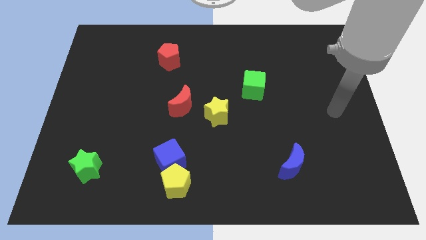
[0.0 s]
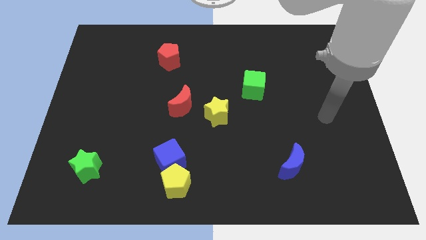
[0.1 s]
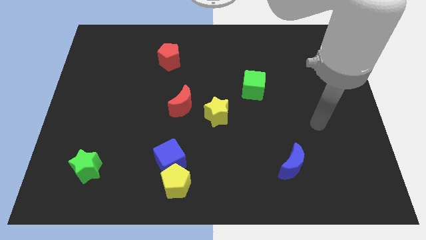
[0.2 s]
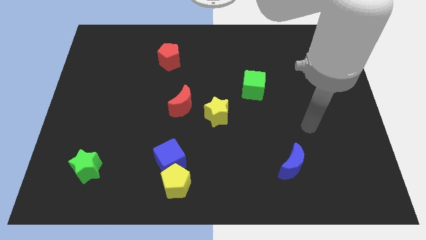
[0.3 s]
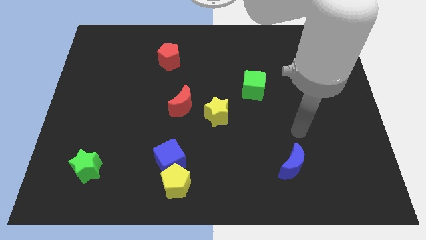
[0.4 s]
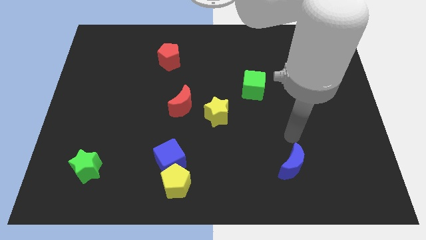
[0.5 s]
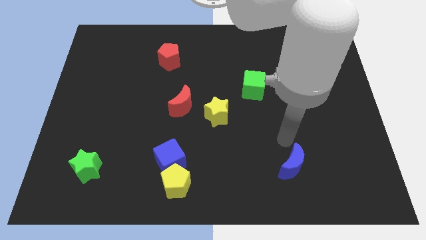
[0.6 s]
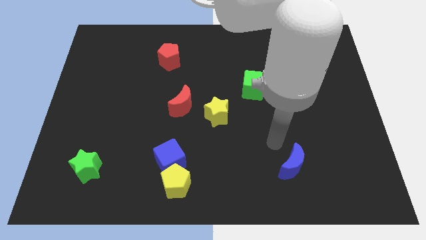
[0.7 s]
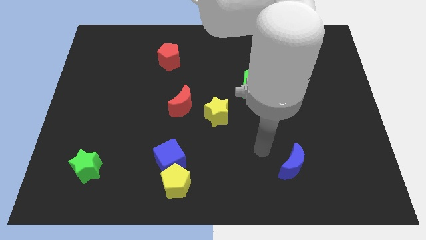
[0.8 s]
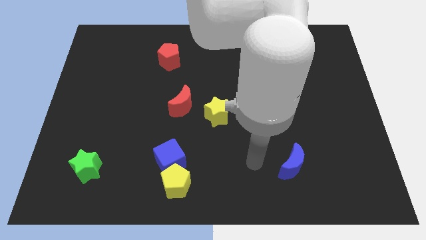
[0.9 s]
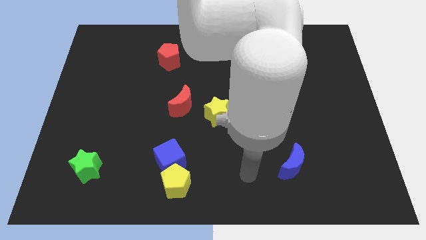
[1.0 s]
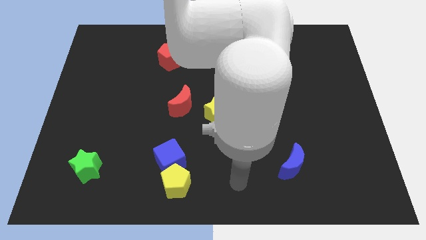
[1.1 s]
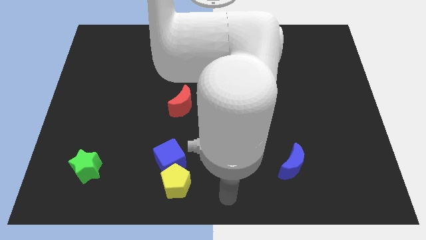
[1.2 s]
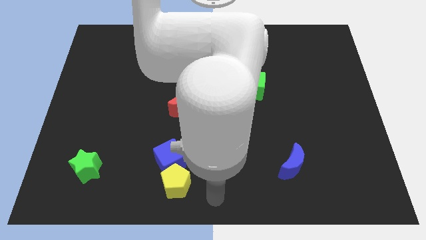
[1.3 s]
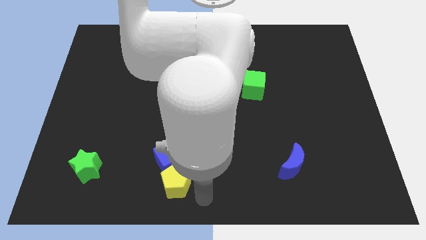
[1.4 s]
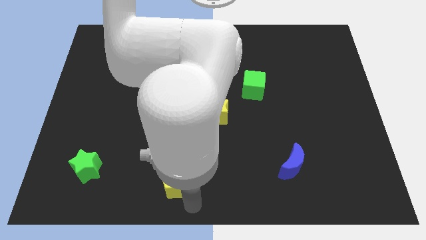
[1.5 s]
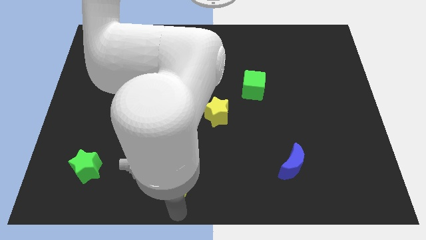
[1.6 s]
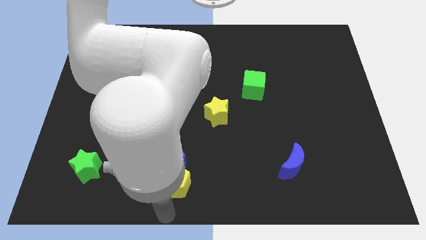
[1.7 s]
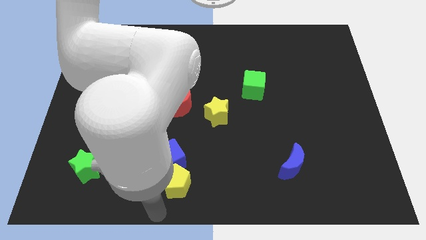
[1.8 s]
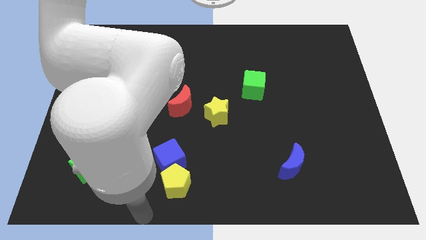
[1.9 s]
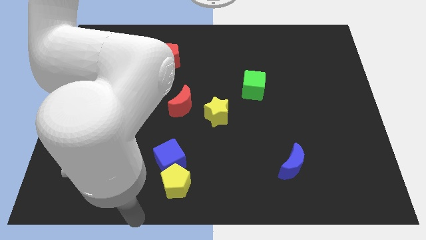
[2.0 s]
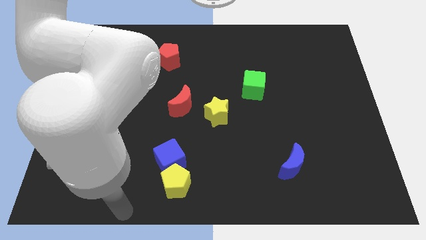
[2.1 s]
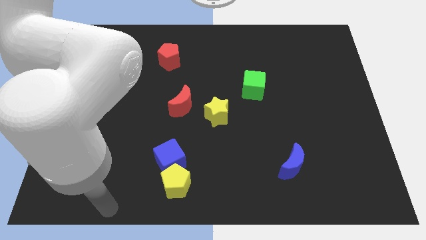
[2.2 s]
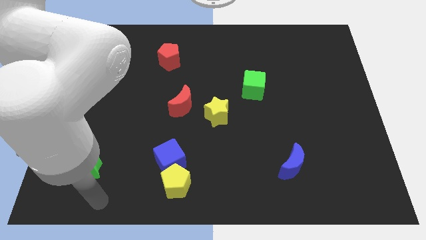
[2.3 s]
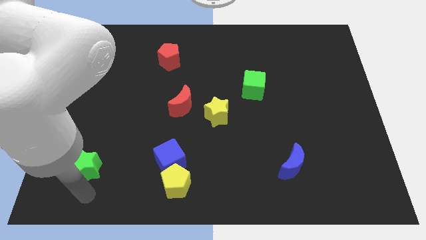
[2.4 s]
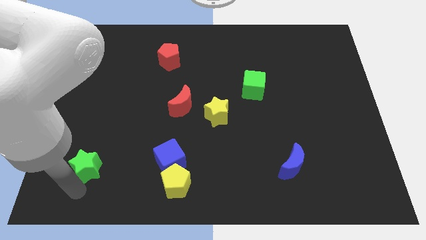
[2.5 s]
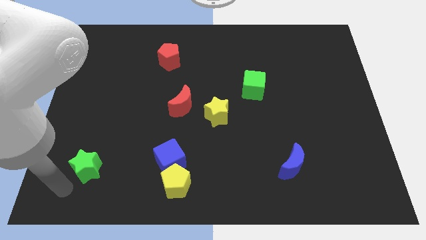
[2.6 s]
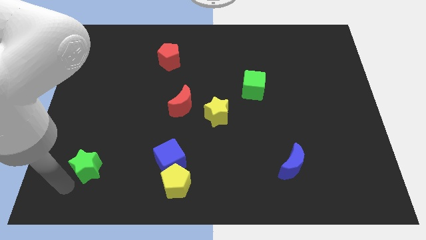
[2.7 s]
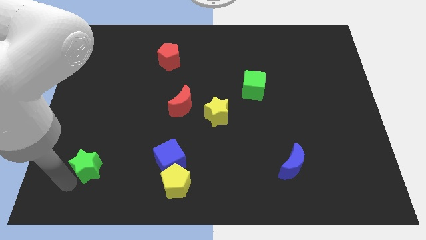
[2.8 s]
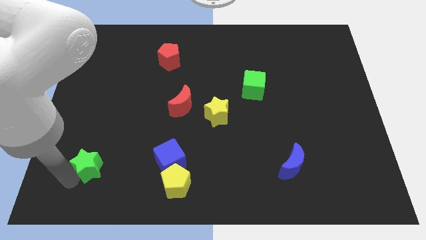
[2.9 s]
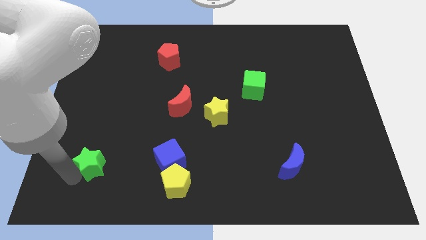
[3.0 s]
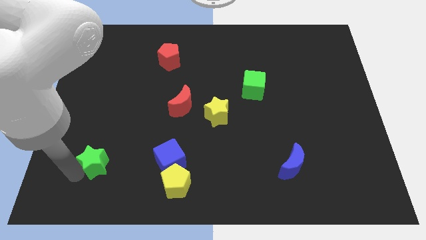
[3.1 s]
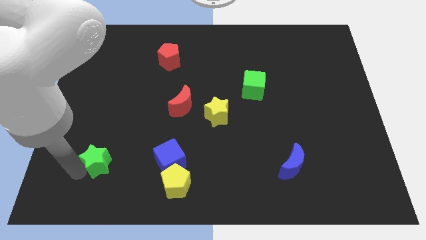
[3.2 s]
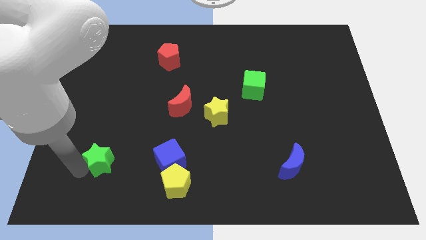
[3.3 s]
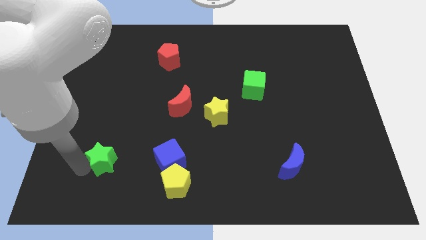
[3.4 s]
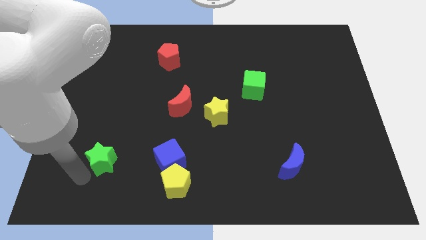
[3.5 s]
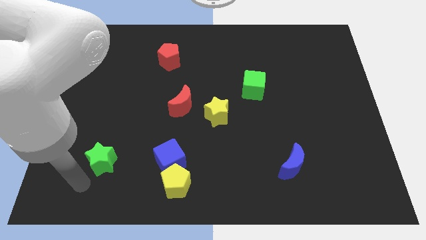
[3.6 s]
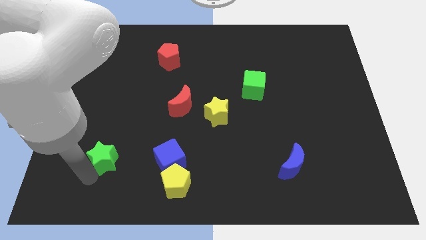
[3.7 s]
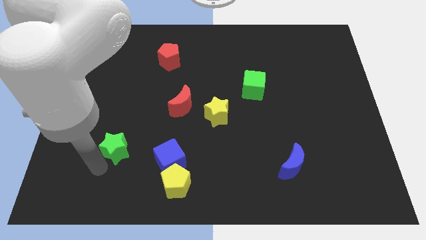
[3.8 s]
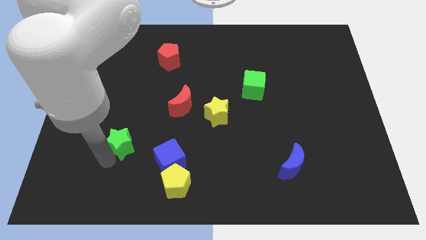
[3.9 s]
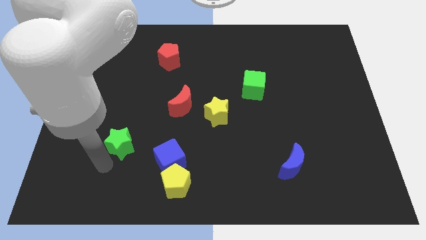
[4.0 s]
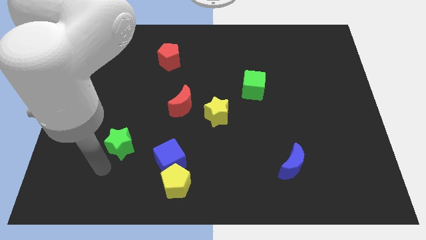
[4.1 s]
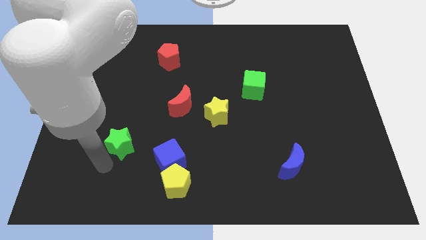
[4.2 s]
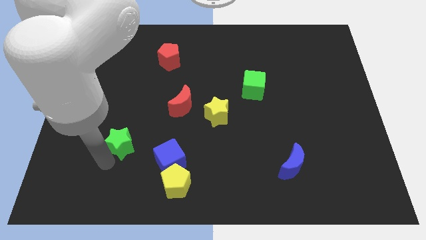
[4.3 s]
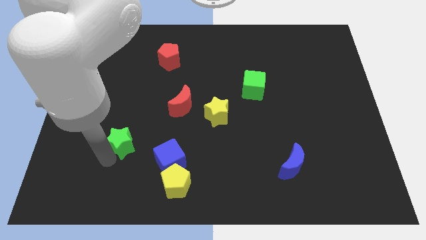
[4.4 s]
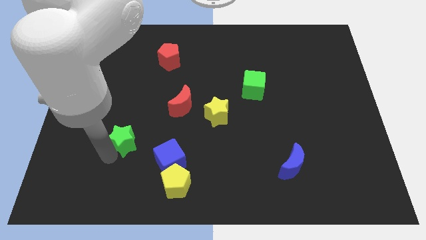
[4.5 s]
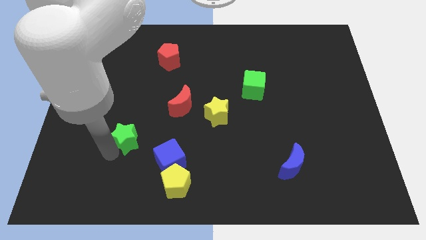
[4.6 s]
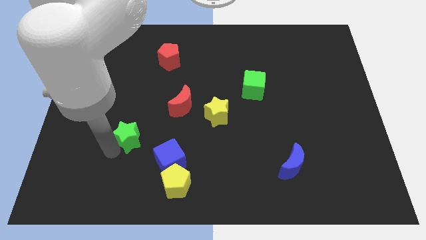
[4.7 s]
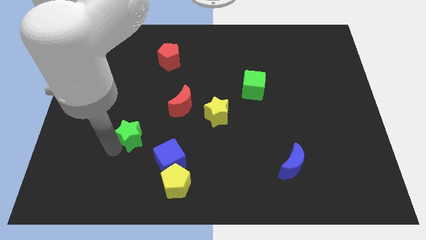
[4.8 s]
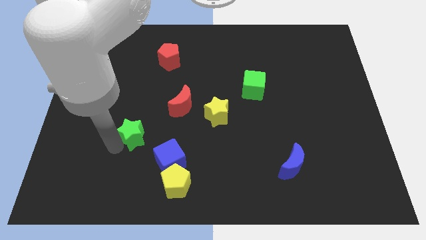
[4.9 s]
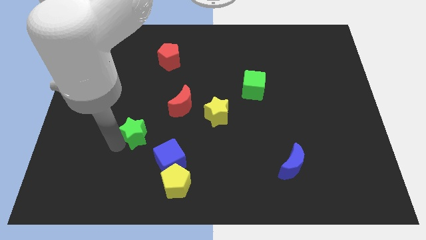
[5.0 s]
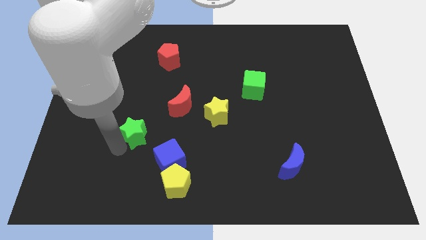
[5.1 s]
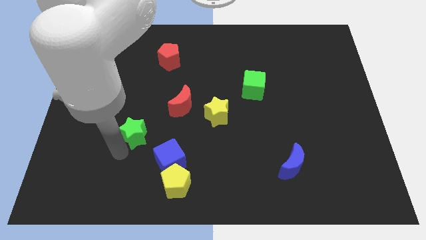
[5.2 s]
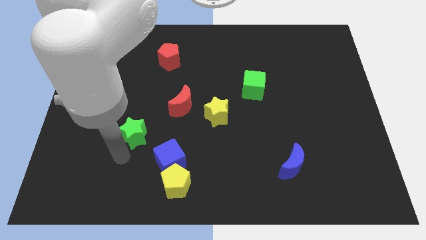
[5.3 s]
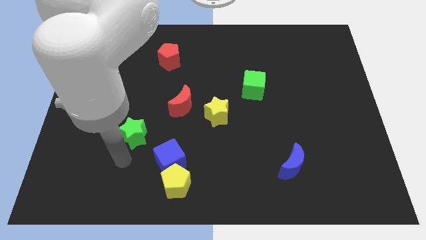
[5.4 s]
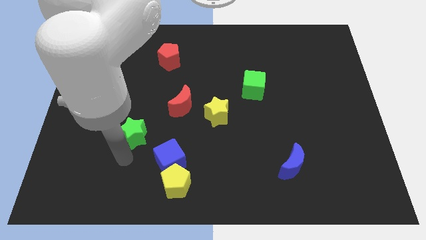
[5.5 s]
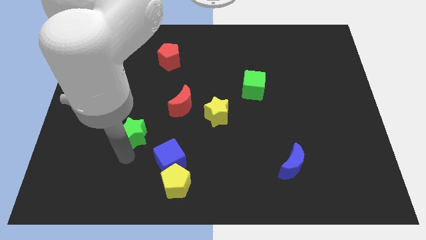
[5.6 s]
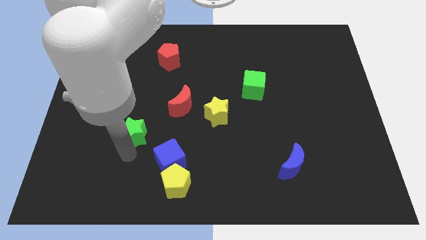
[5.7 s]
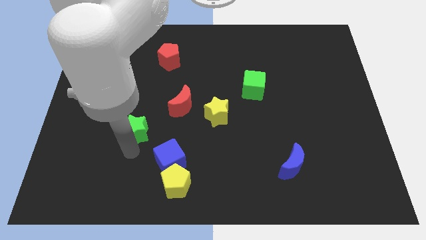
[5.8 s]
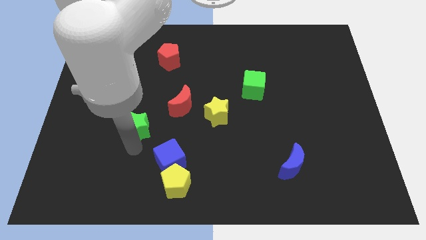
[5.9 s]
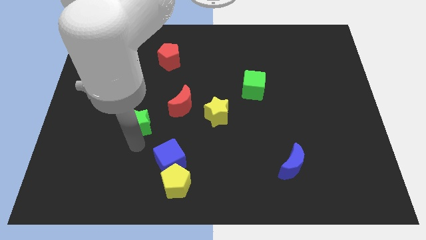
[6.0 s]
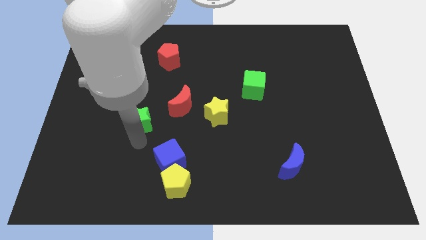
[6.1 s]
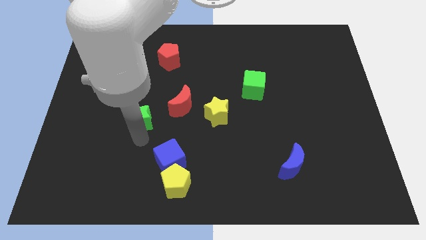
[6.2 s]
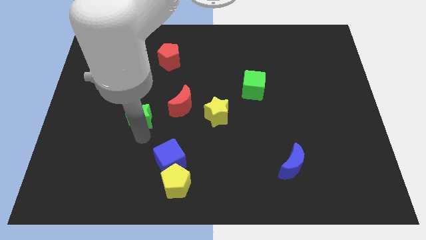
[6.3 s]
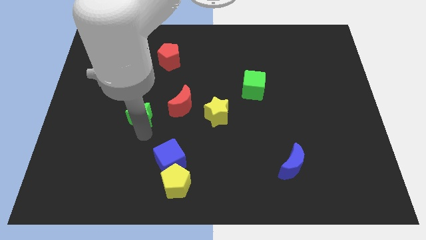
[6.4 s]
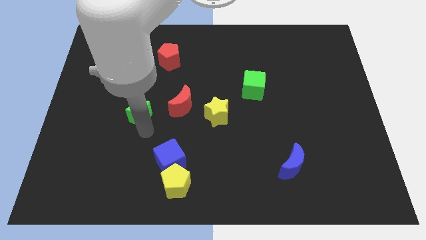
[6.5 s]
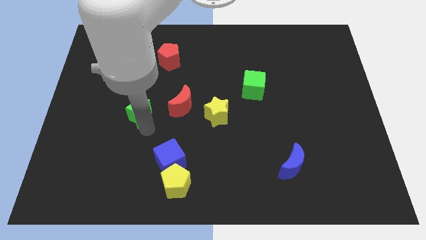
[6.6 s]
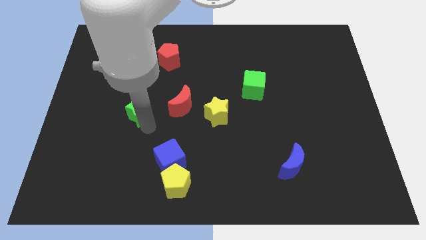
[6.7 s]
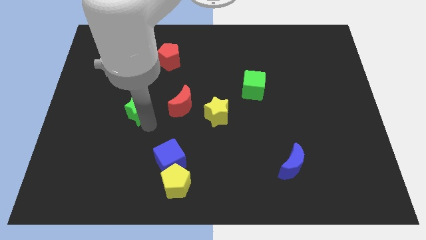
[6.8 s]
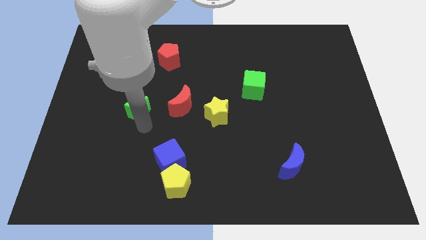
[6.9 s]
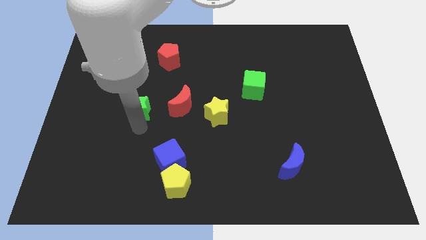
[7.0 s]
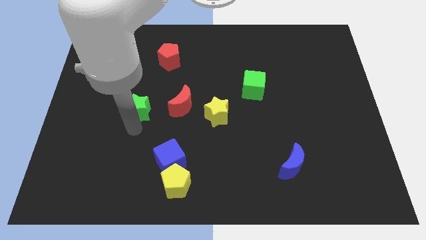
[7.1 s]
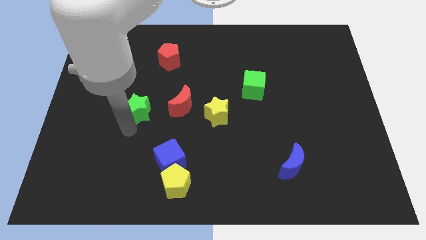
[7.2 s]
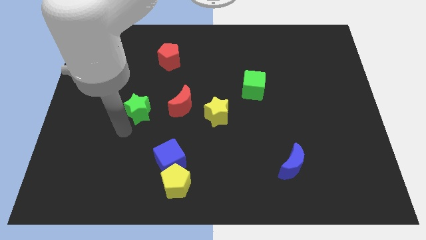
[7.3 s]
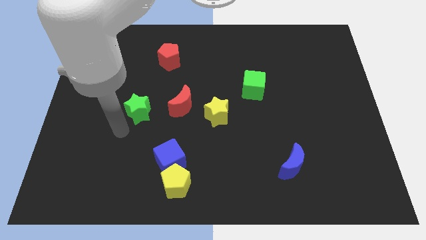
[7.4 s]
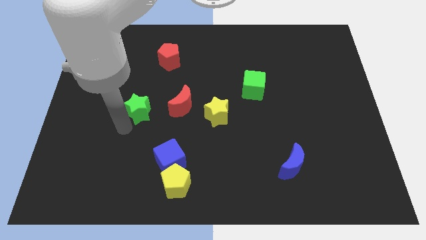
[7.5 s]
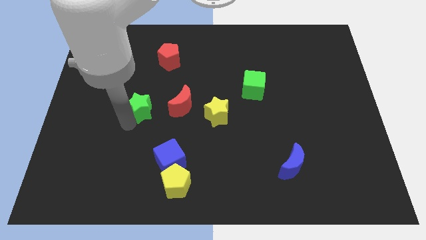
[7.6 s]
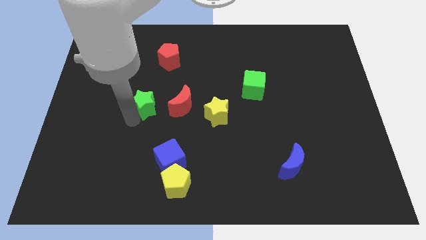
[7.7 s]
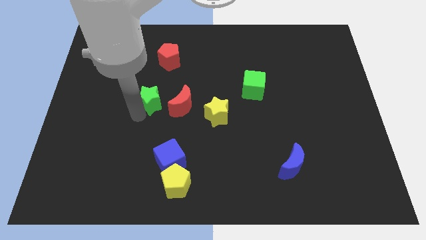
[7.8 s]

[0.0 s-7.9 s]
push the green star diagonally up and to the left of the red moon
